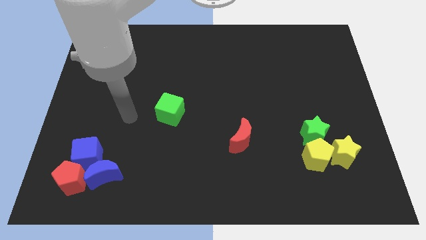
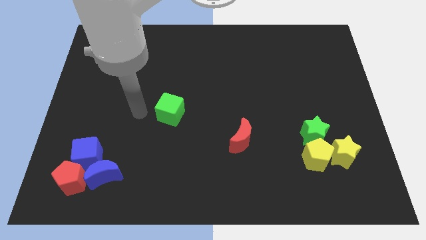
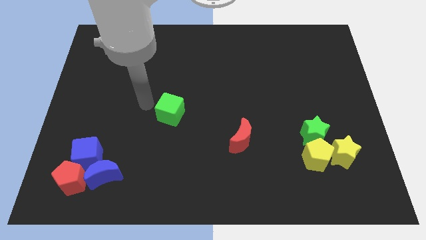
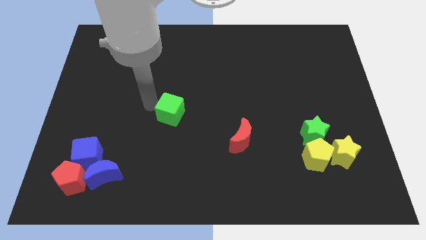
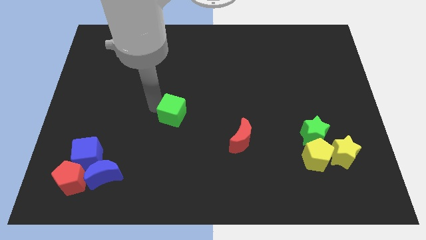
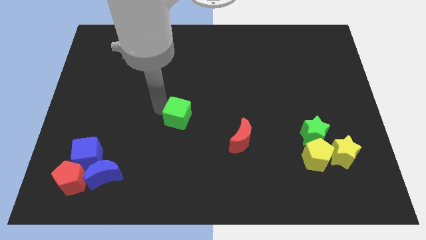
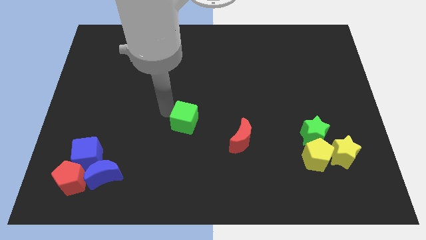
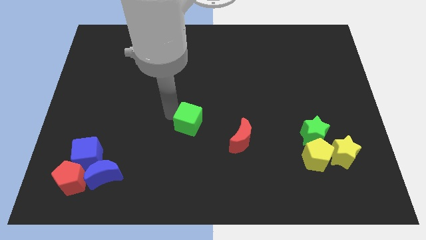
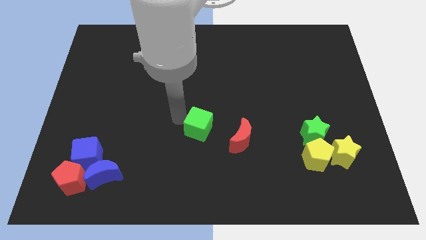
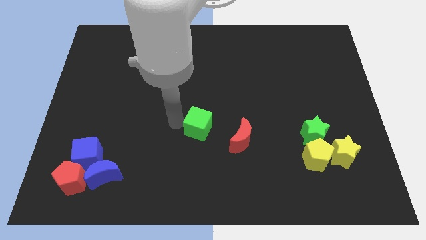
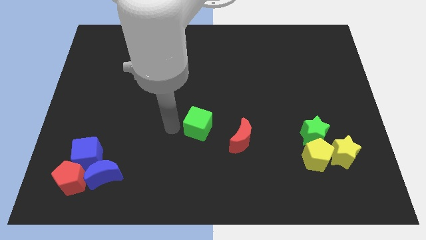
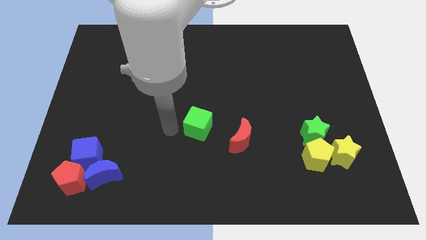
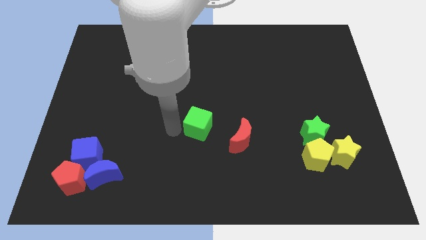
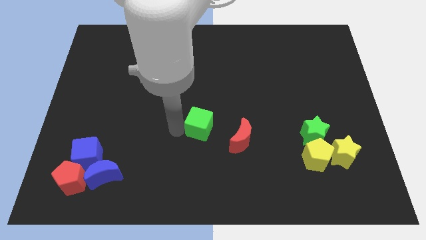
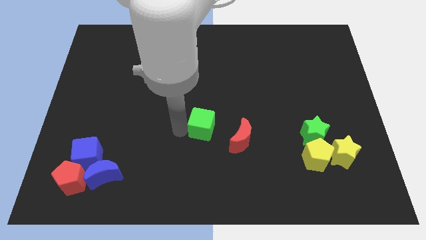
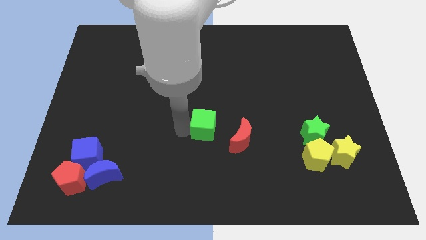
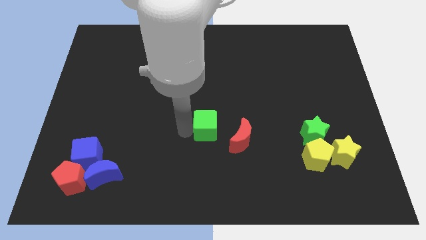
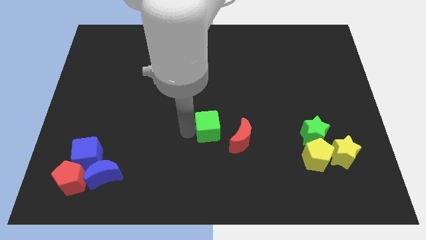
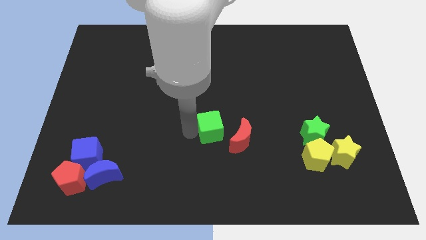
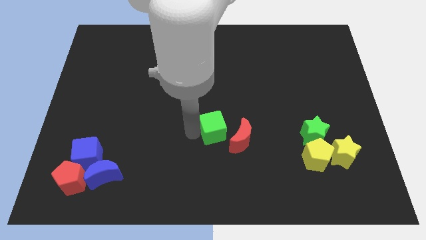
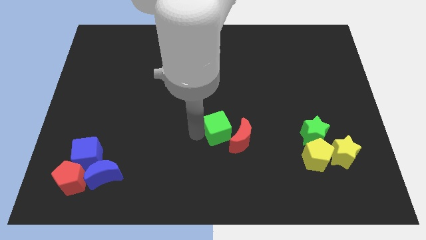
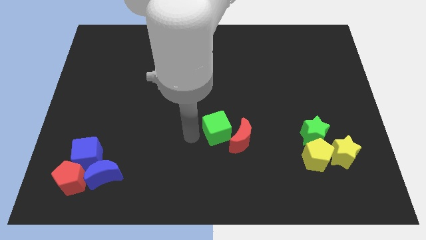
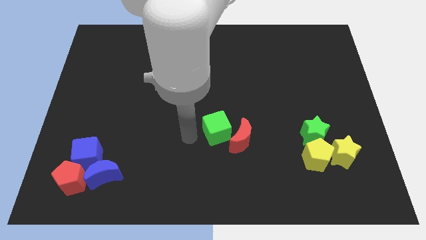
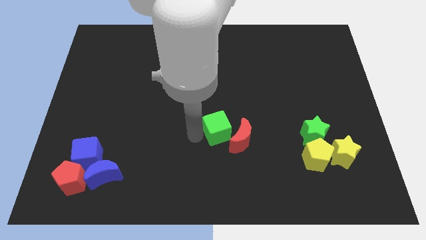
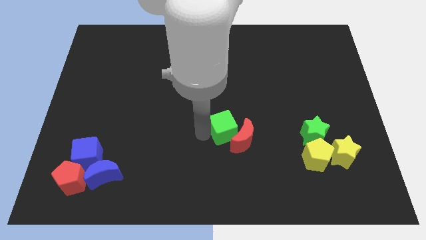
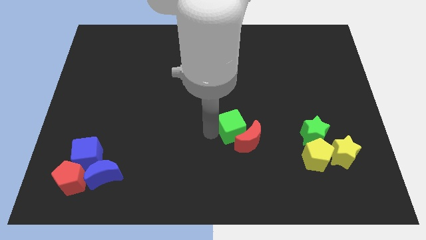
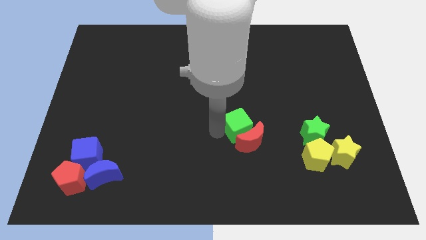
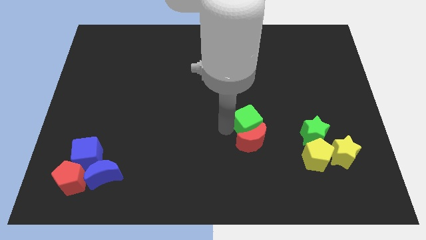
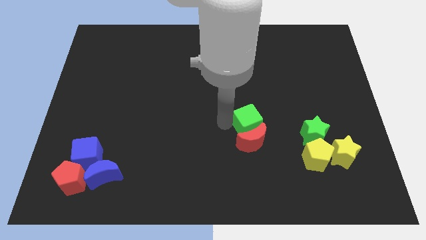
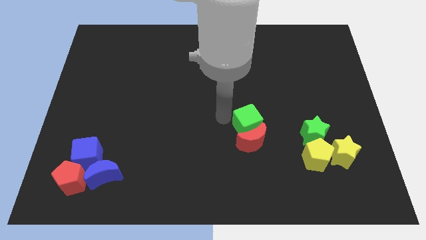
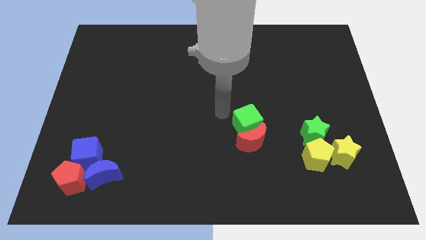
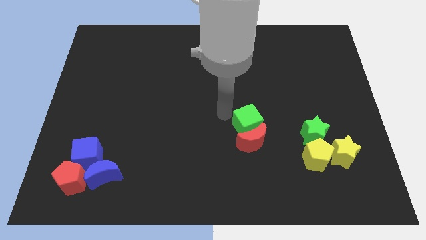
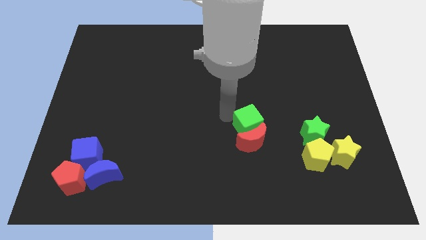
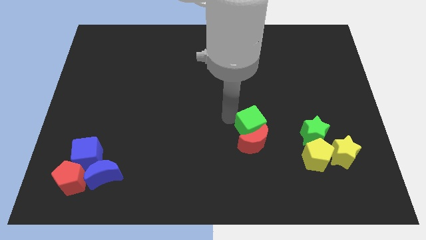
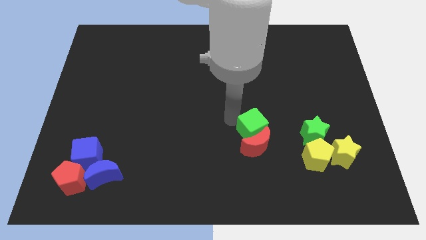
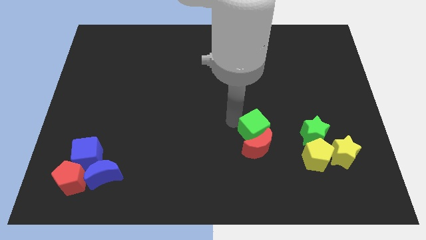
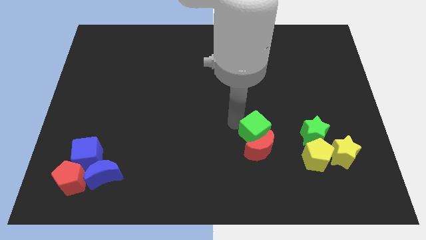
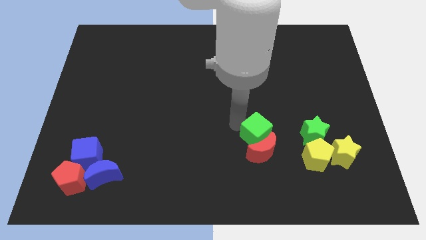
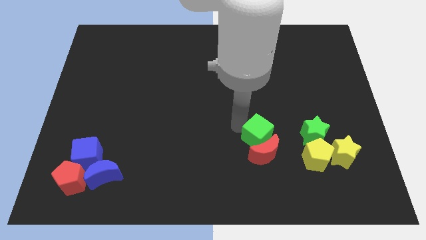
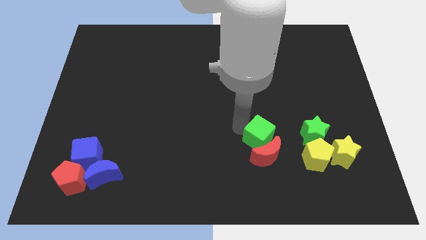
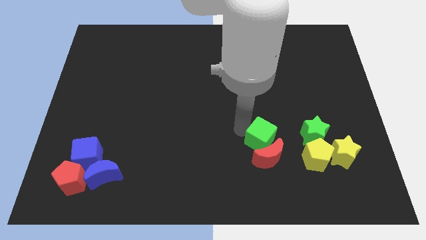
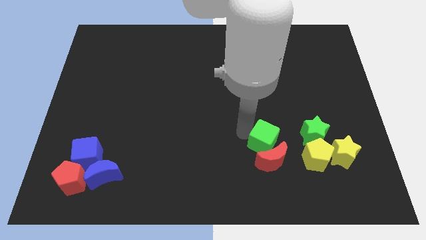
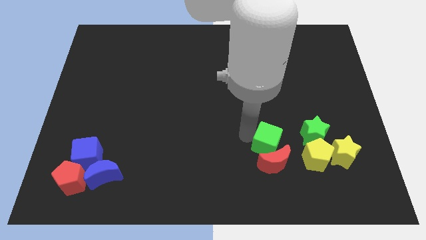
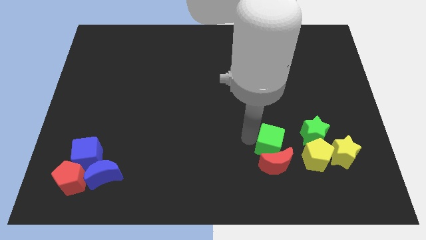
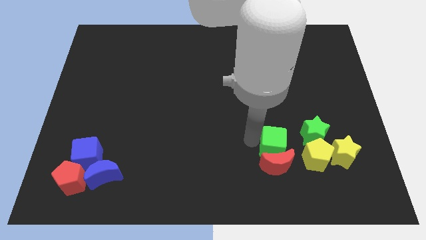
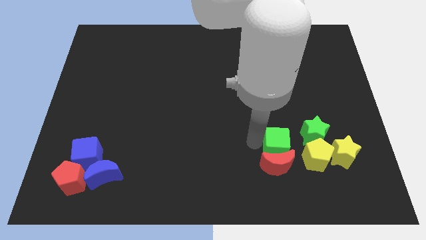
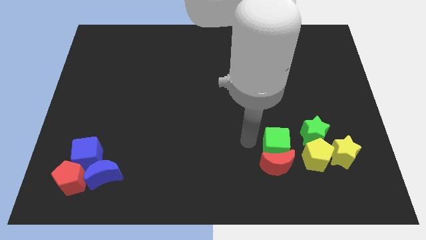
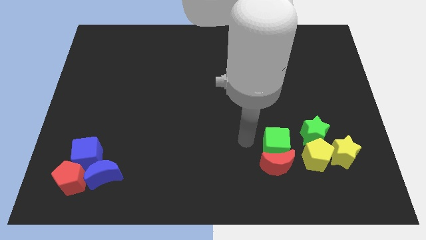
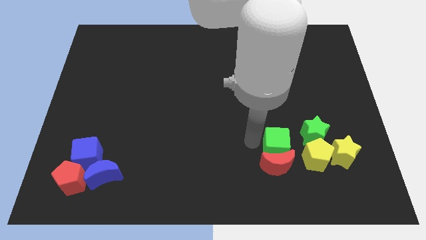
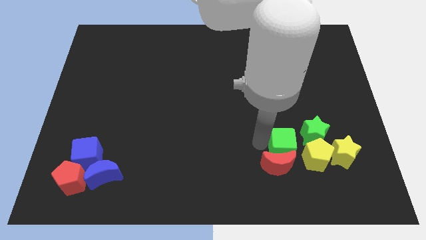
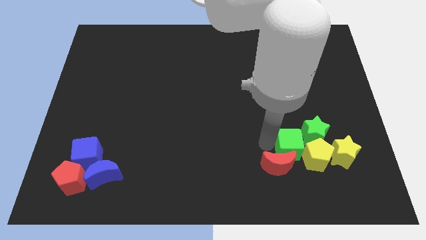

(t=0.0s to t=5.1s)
move the green cube close to the yellow pentagon

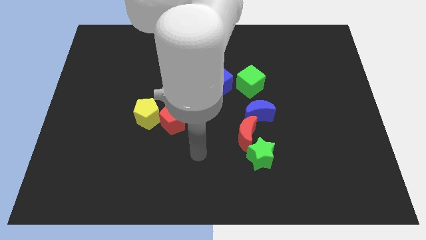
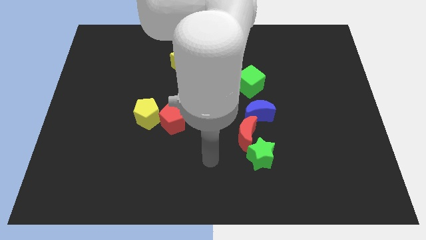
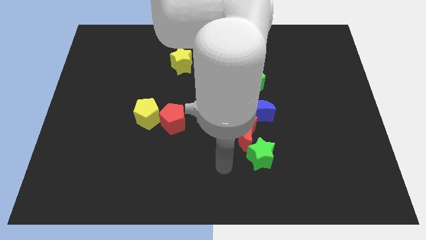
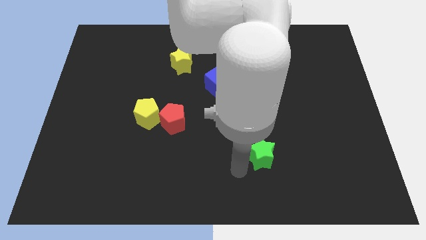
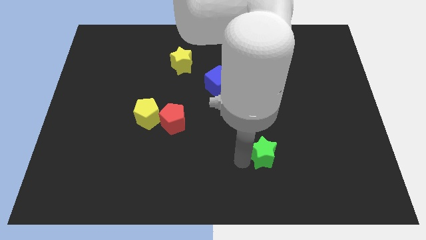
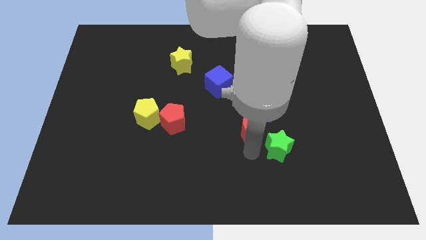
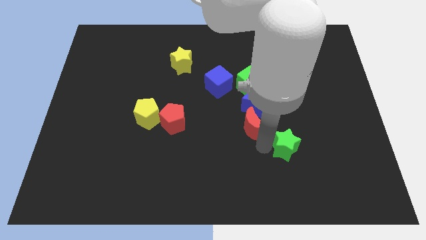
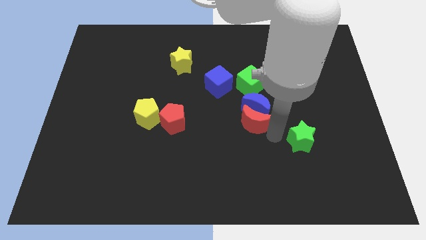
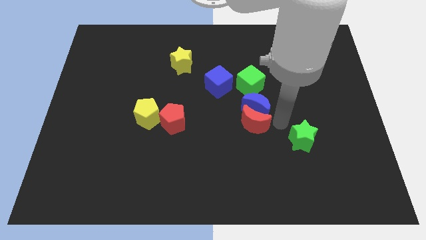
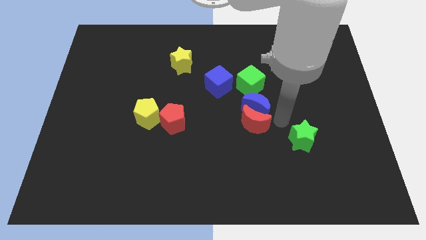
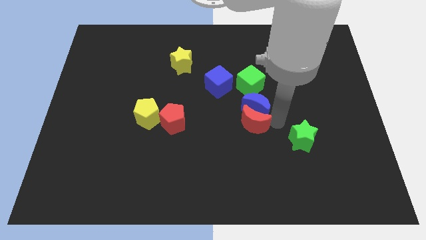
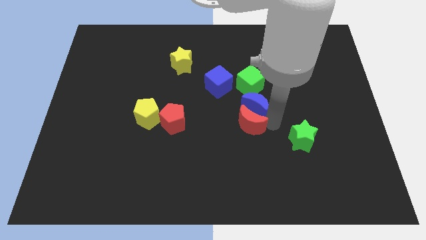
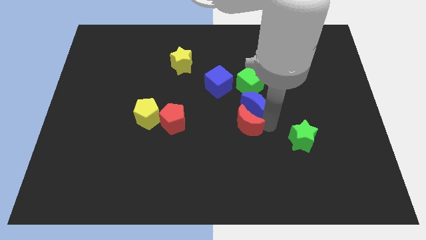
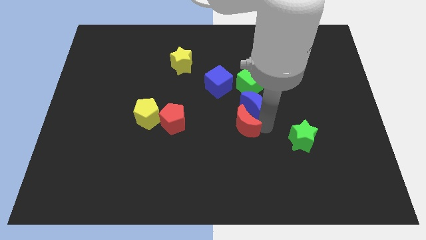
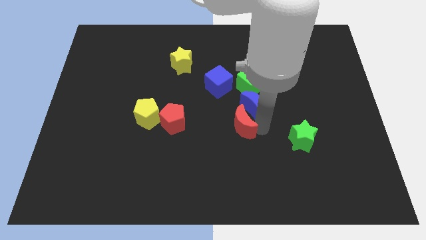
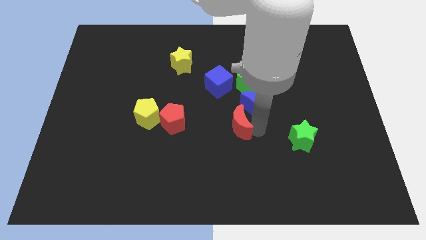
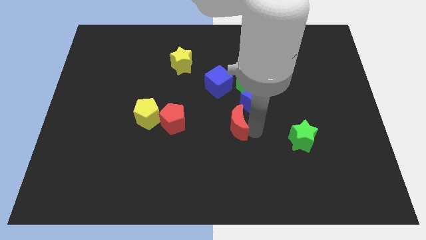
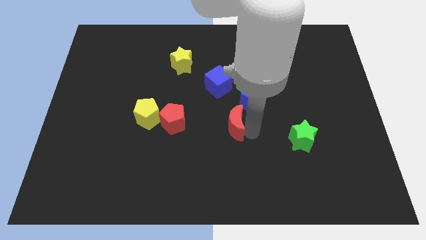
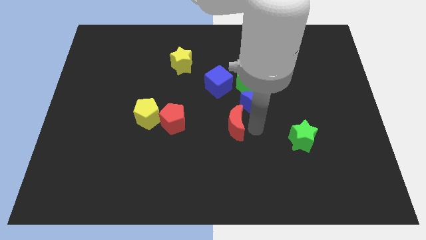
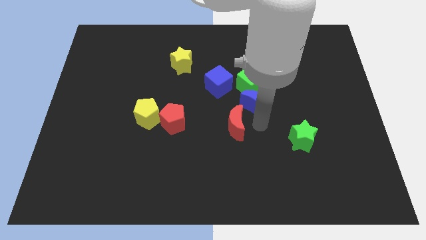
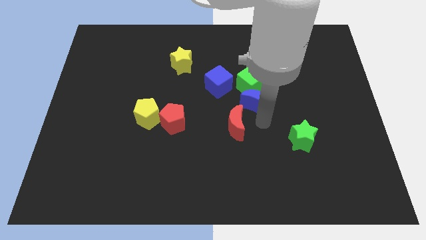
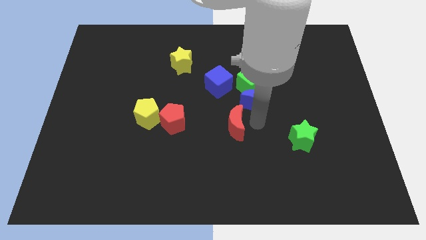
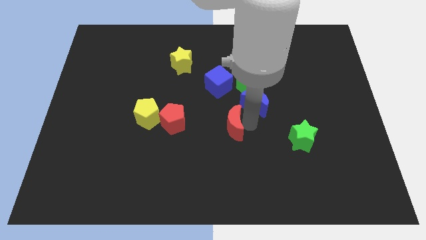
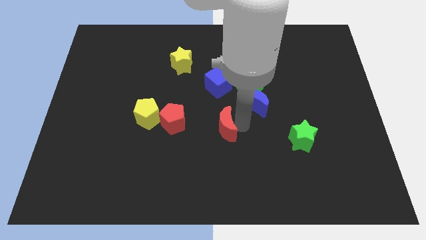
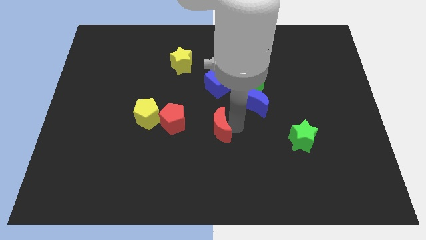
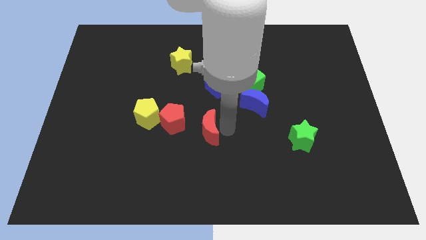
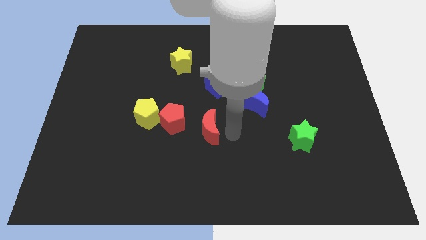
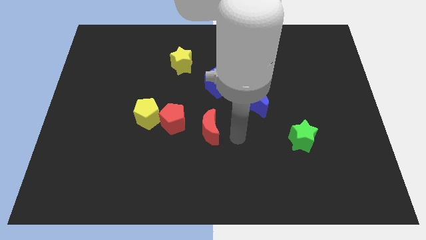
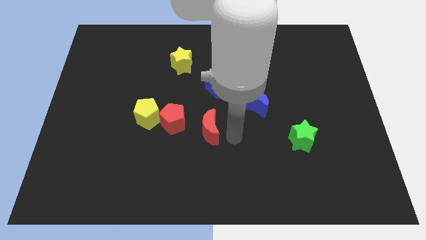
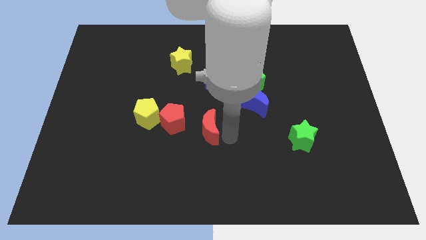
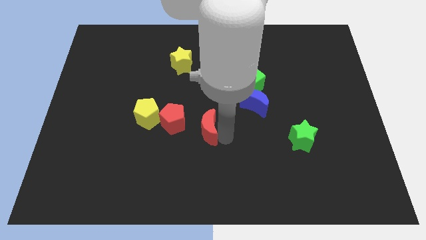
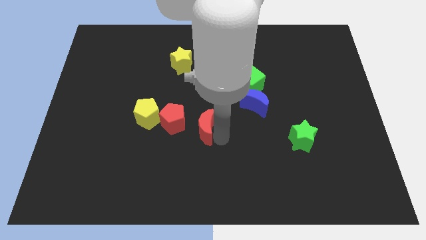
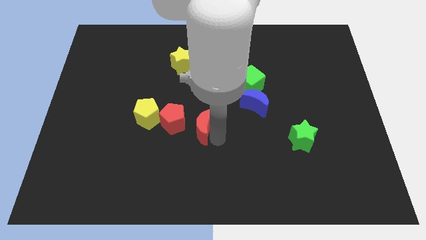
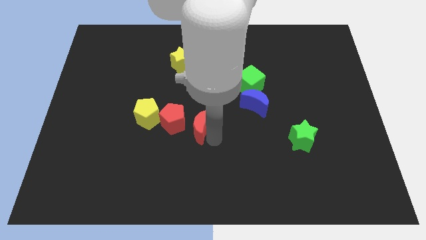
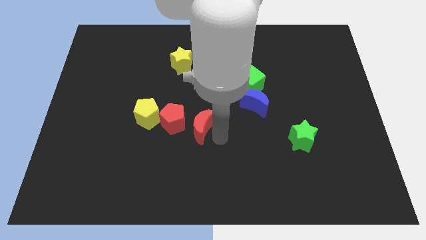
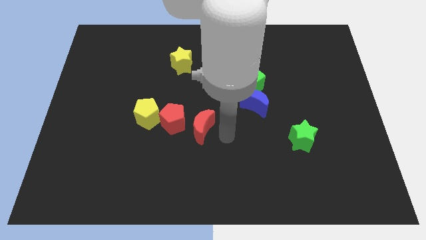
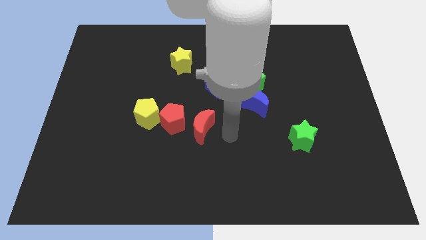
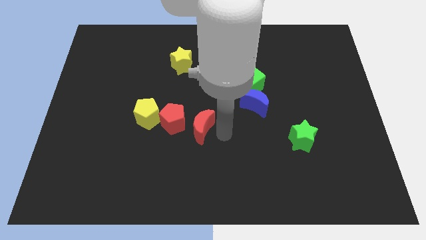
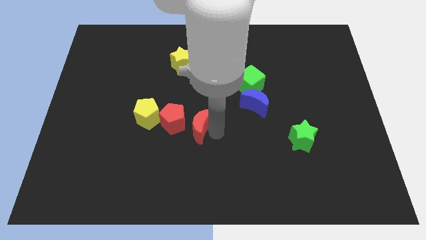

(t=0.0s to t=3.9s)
move the red moon to the red pentagon
